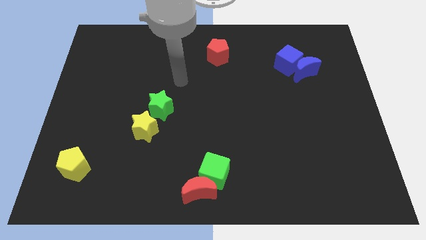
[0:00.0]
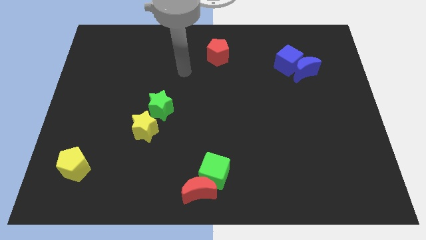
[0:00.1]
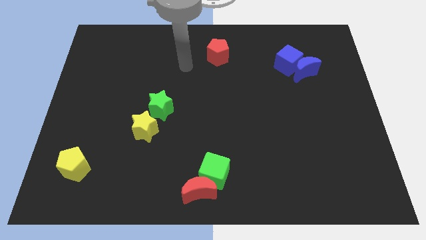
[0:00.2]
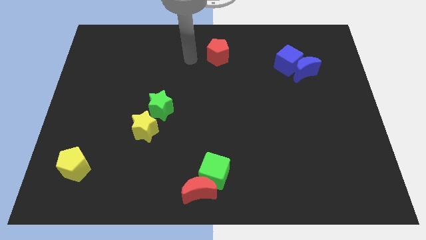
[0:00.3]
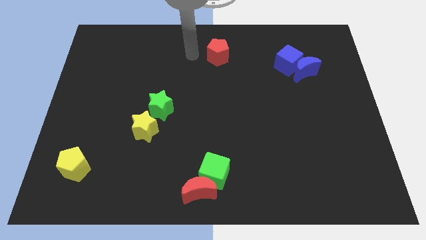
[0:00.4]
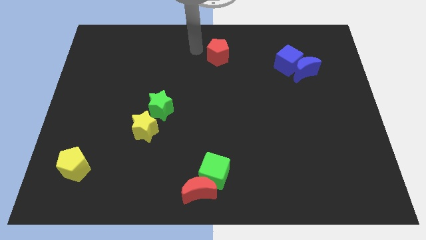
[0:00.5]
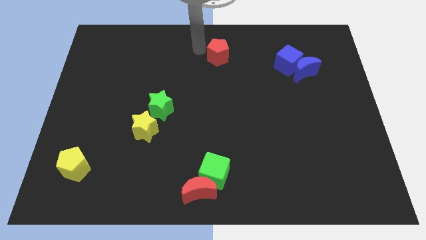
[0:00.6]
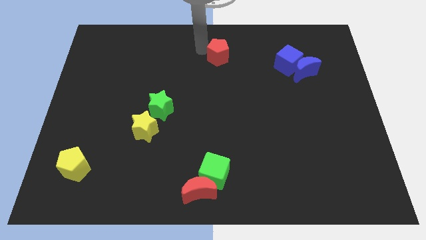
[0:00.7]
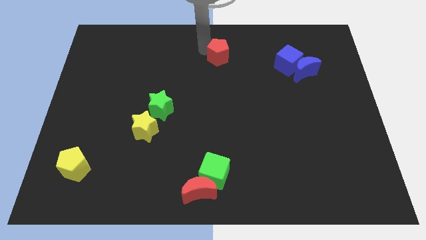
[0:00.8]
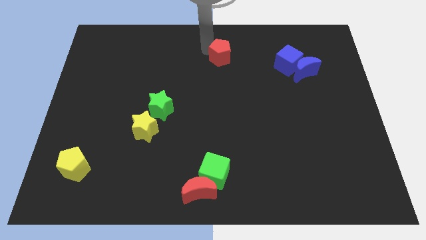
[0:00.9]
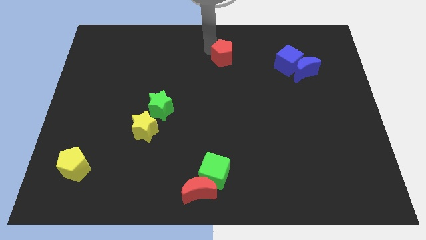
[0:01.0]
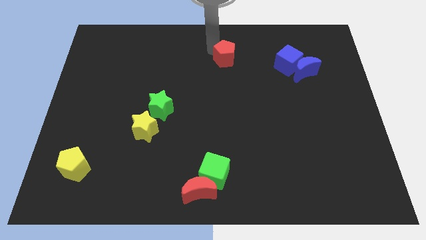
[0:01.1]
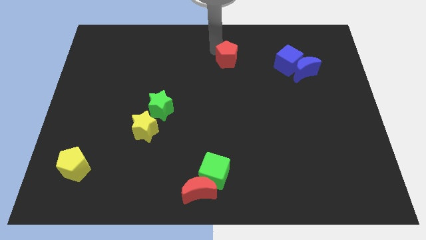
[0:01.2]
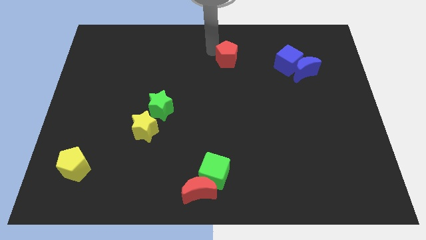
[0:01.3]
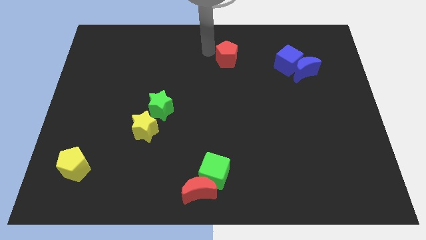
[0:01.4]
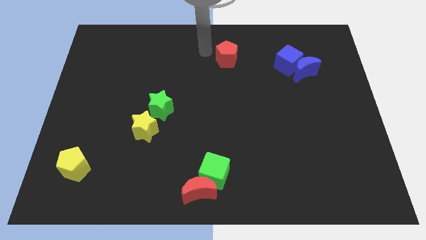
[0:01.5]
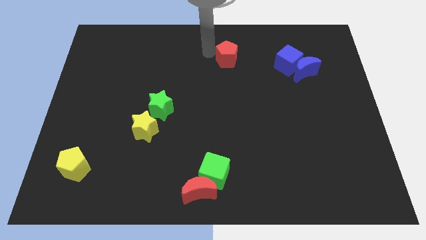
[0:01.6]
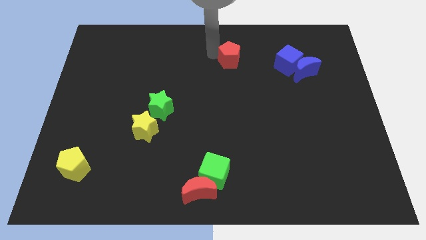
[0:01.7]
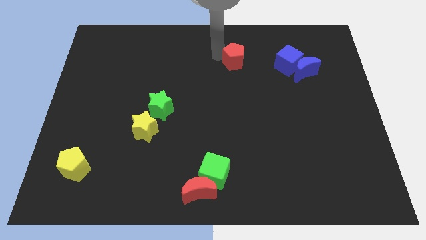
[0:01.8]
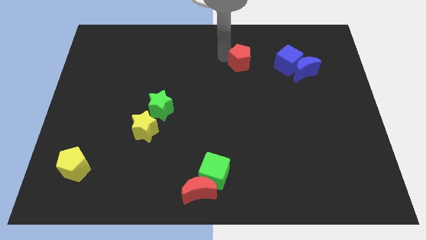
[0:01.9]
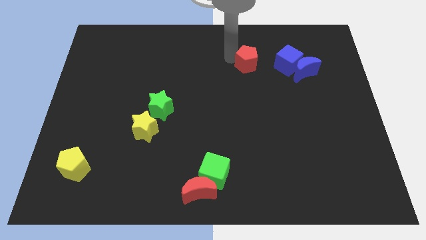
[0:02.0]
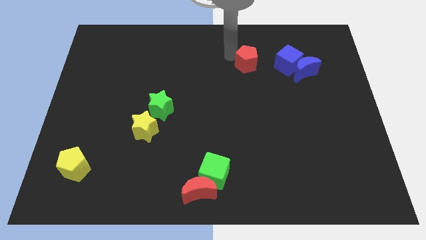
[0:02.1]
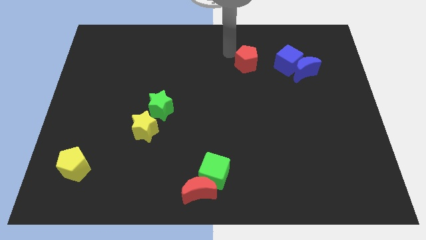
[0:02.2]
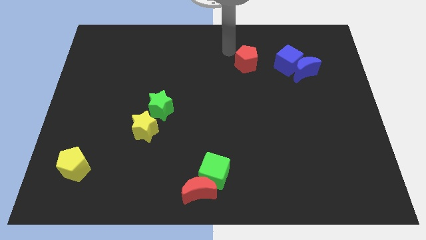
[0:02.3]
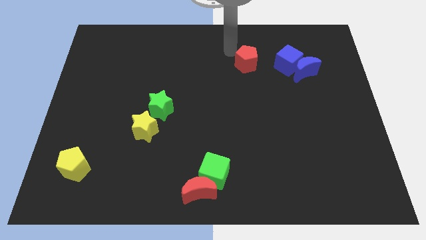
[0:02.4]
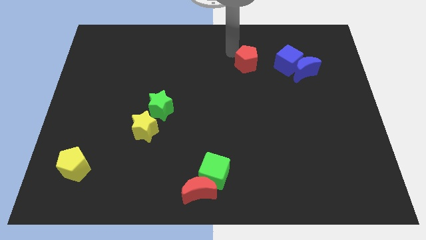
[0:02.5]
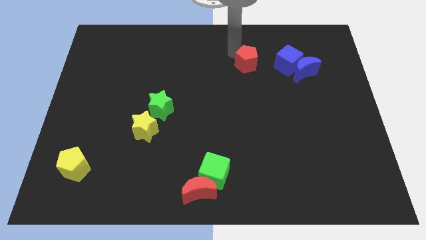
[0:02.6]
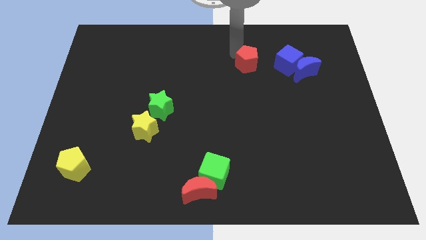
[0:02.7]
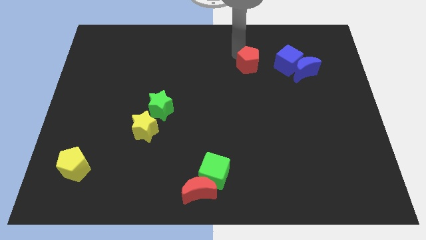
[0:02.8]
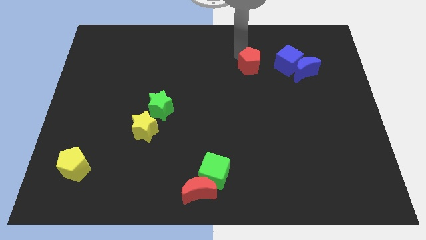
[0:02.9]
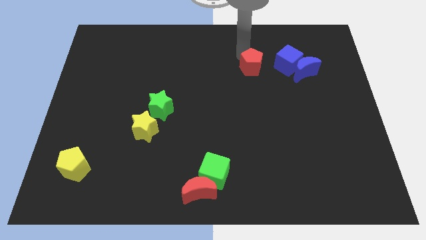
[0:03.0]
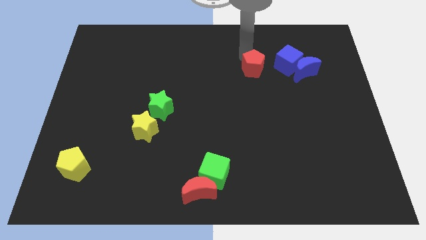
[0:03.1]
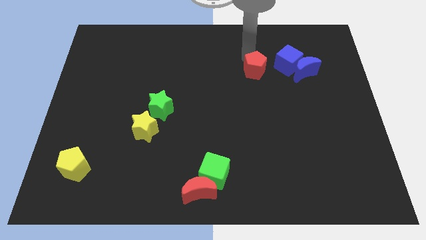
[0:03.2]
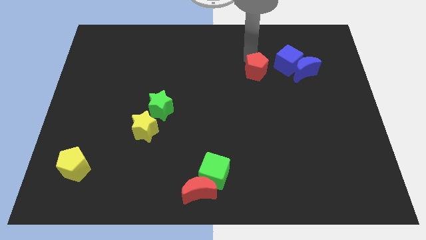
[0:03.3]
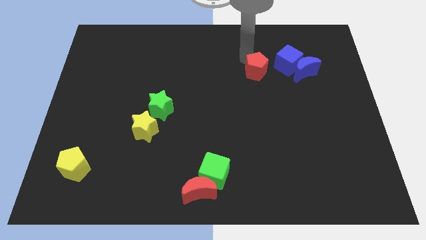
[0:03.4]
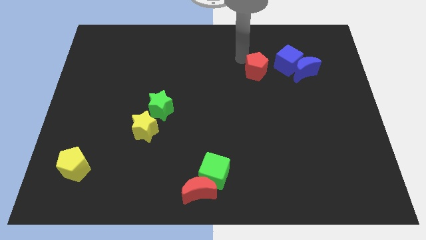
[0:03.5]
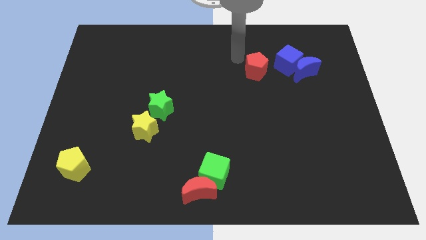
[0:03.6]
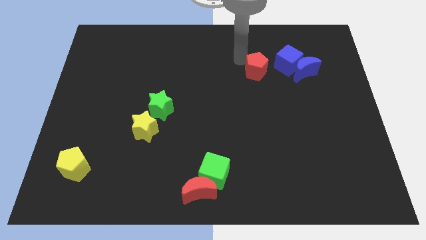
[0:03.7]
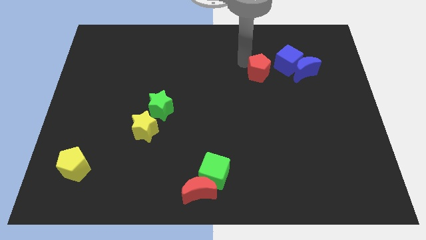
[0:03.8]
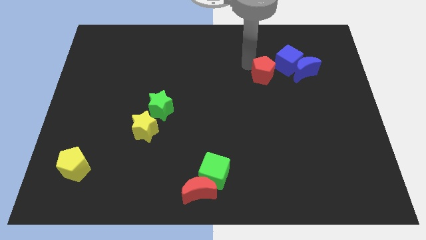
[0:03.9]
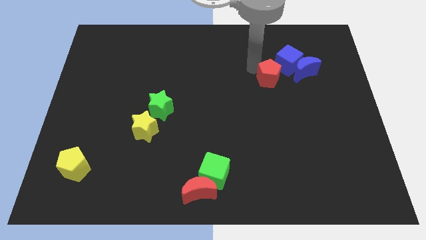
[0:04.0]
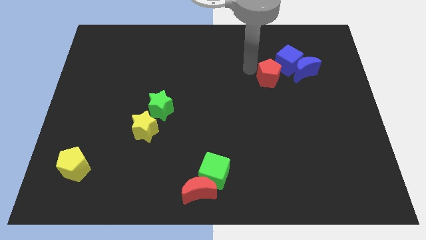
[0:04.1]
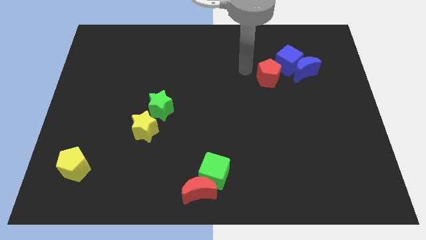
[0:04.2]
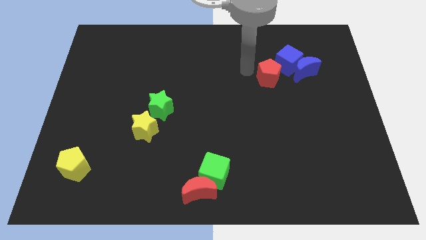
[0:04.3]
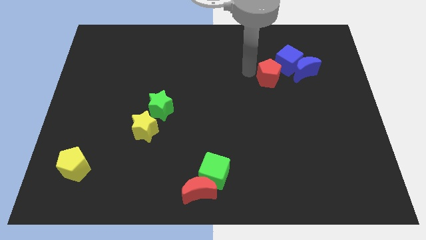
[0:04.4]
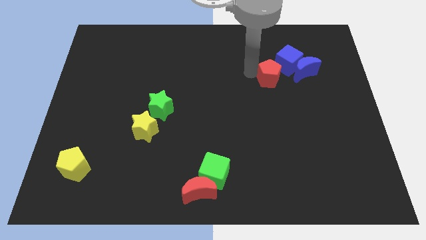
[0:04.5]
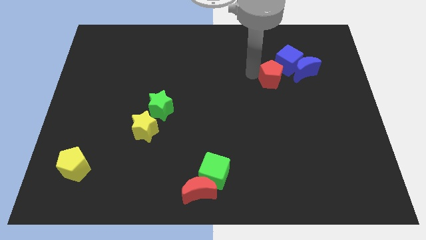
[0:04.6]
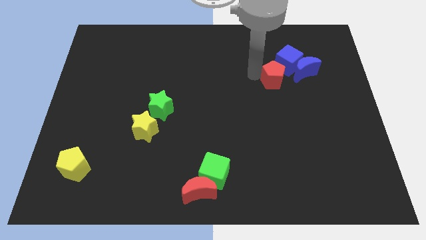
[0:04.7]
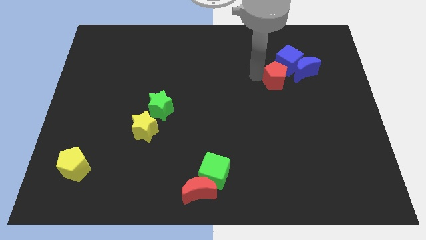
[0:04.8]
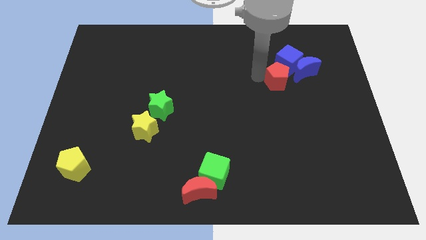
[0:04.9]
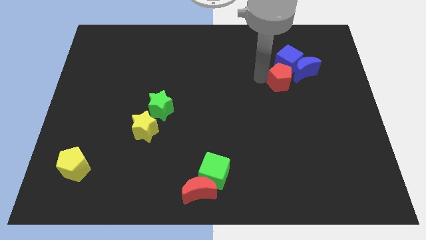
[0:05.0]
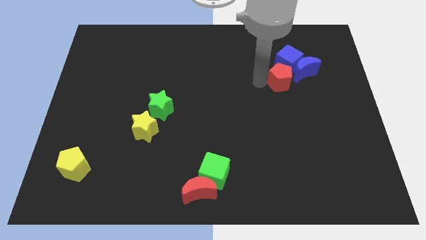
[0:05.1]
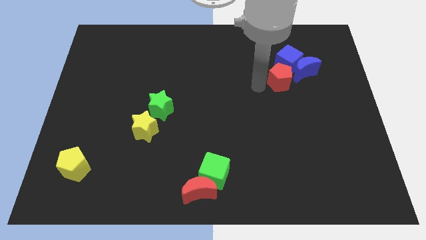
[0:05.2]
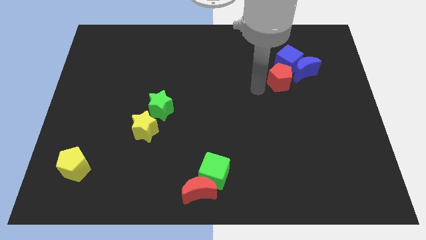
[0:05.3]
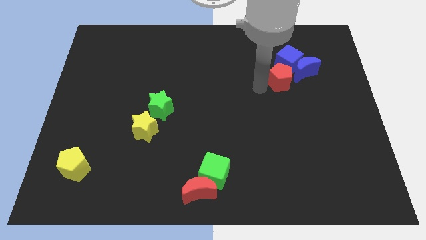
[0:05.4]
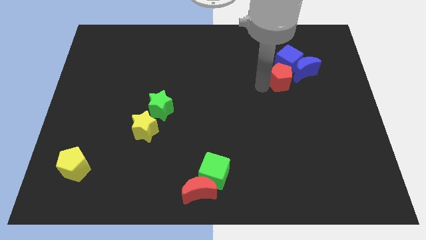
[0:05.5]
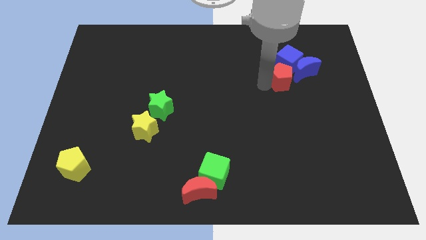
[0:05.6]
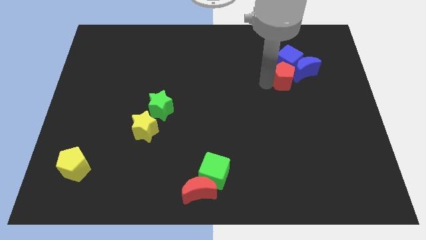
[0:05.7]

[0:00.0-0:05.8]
move the red pentagon towards the blue moon

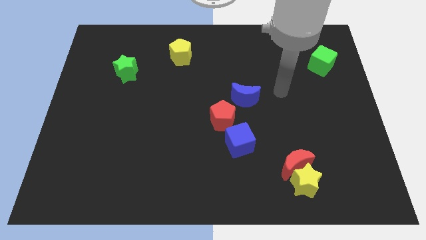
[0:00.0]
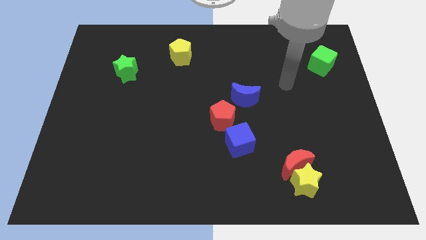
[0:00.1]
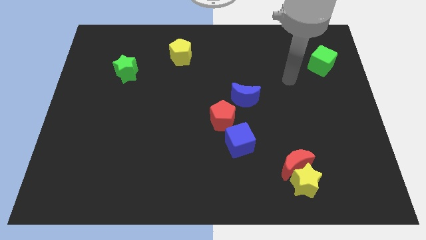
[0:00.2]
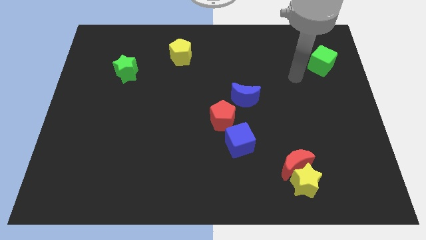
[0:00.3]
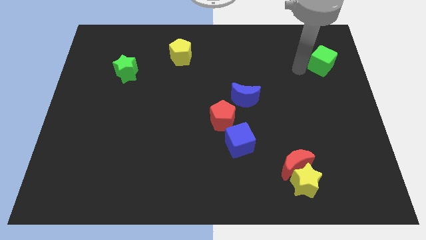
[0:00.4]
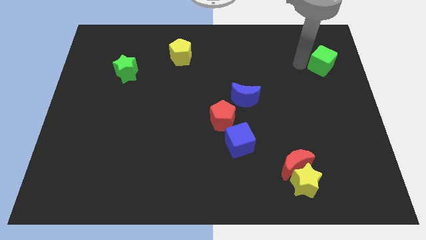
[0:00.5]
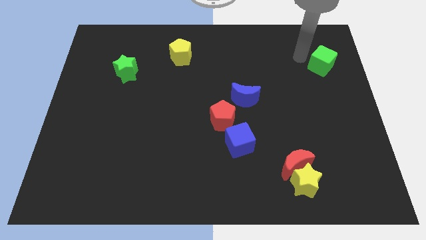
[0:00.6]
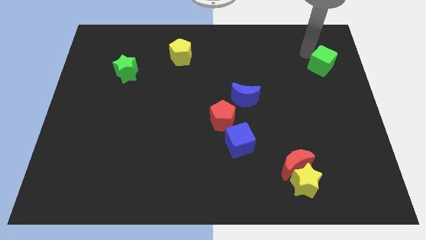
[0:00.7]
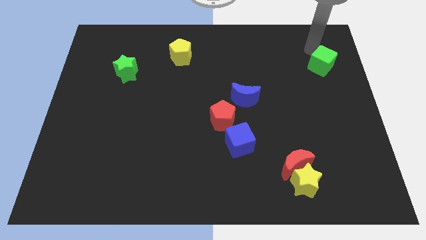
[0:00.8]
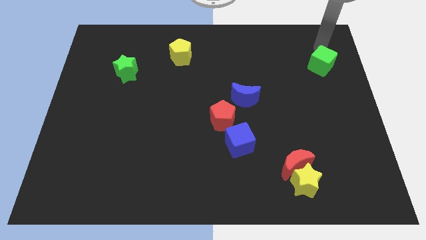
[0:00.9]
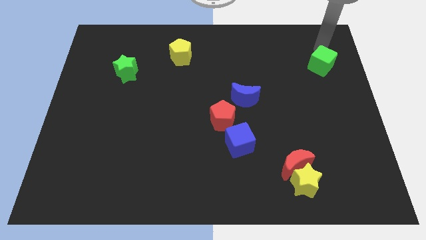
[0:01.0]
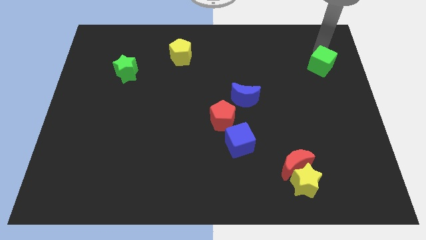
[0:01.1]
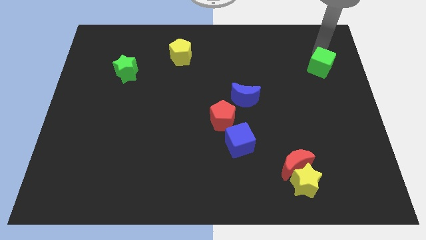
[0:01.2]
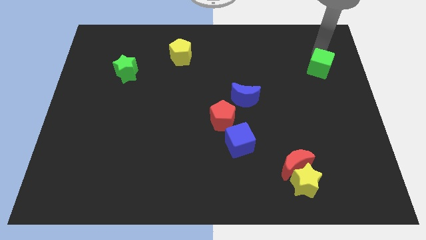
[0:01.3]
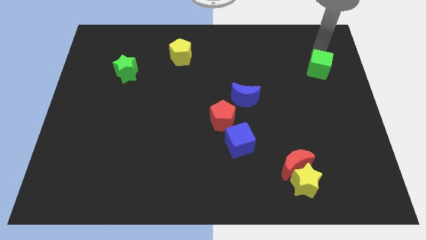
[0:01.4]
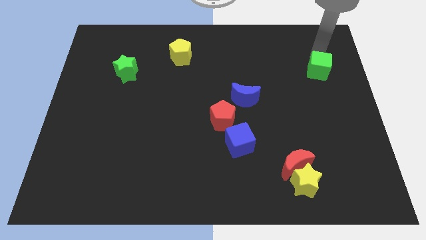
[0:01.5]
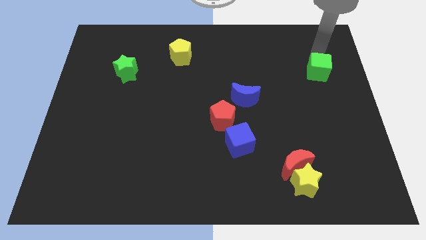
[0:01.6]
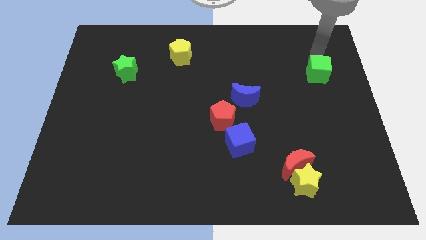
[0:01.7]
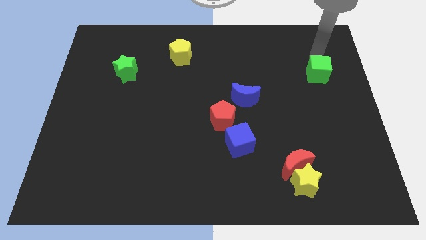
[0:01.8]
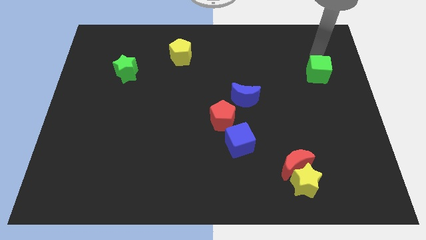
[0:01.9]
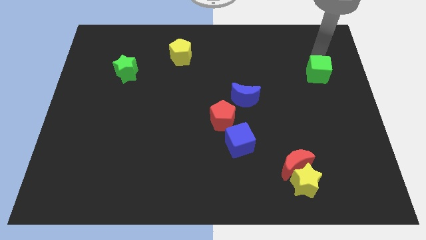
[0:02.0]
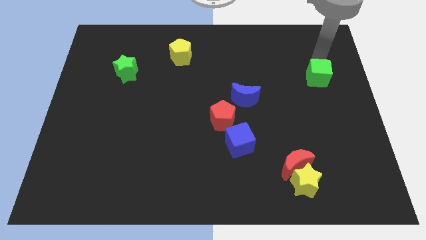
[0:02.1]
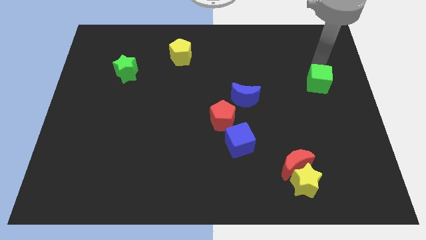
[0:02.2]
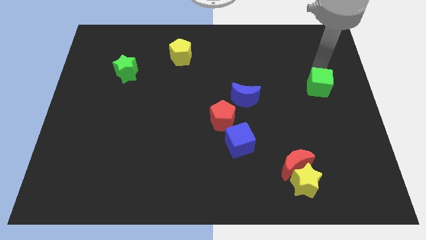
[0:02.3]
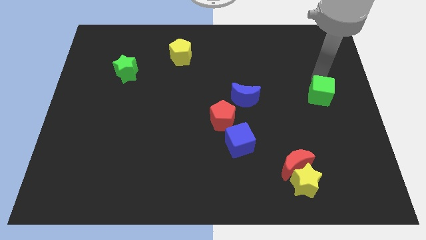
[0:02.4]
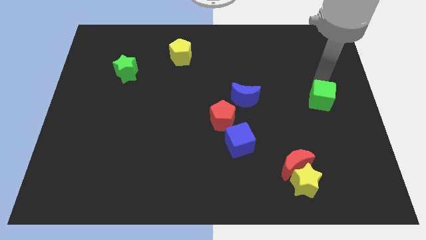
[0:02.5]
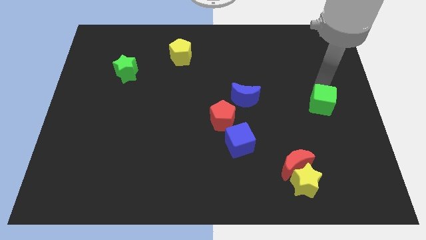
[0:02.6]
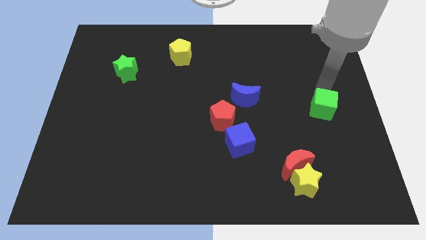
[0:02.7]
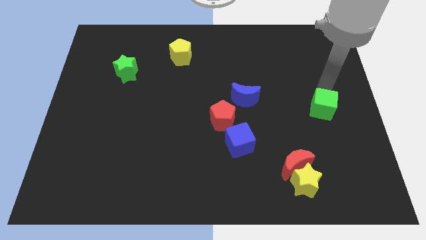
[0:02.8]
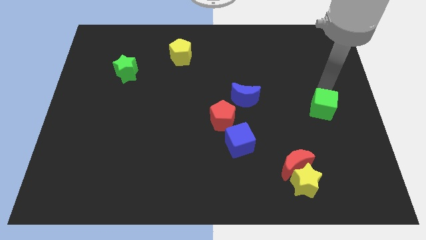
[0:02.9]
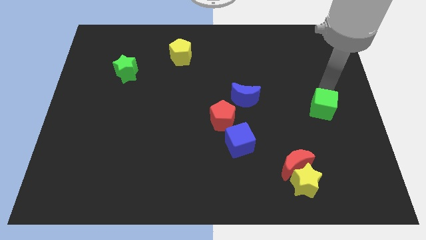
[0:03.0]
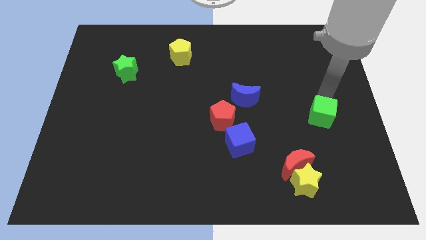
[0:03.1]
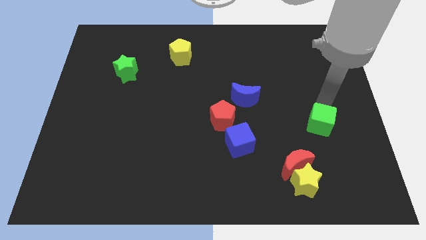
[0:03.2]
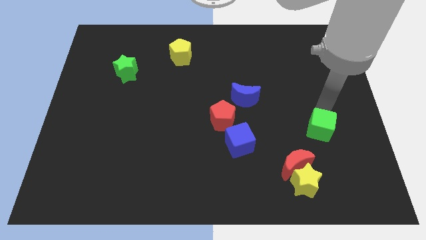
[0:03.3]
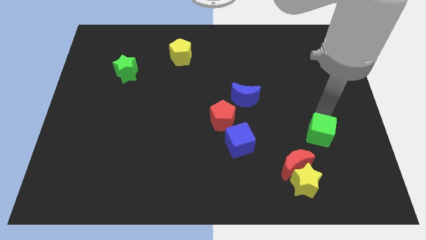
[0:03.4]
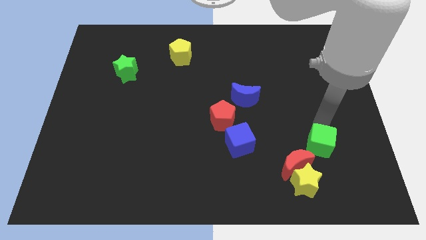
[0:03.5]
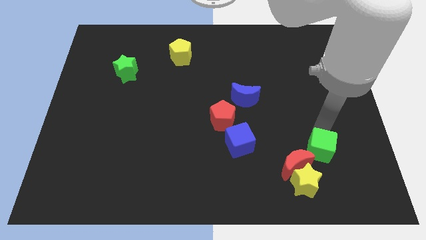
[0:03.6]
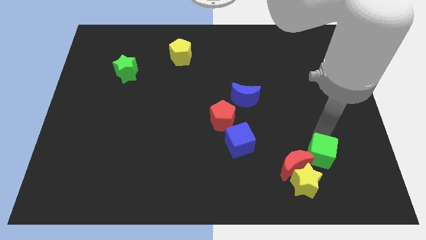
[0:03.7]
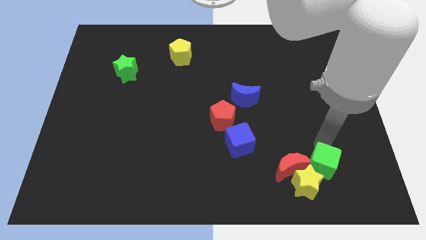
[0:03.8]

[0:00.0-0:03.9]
slide the green cube next to the yellow star
